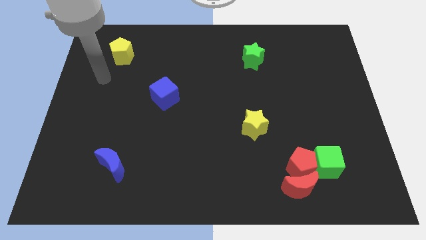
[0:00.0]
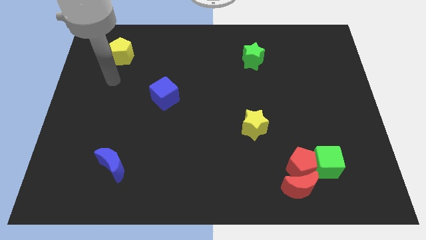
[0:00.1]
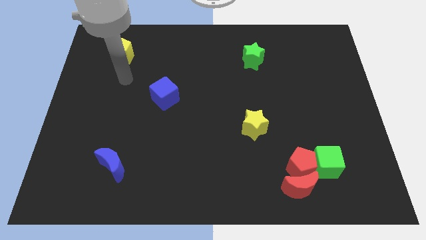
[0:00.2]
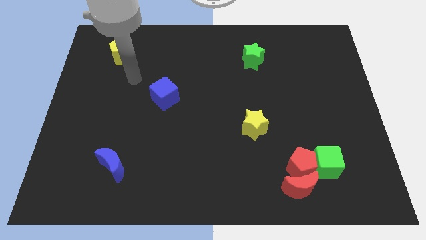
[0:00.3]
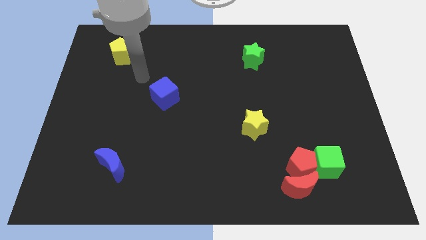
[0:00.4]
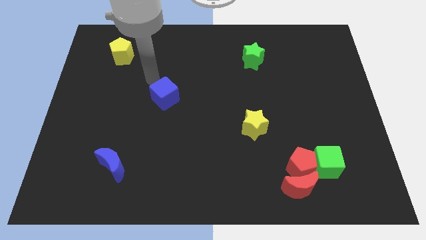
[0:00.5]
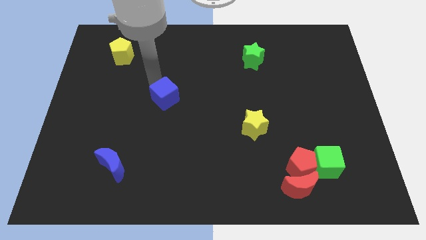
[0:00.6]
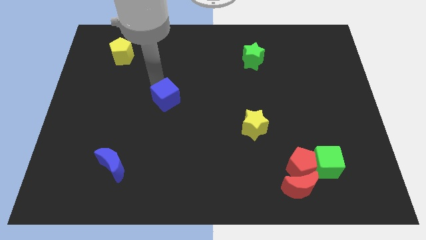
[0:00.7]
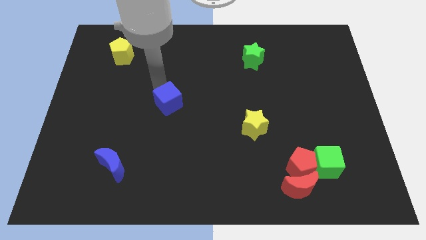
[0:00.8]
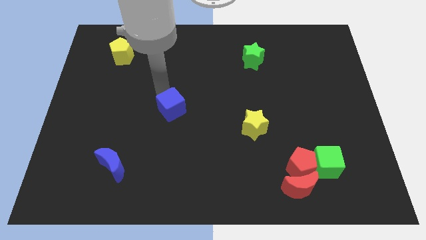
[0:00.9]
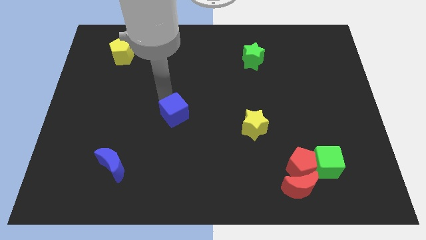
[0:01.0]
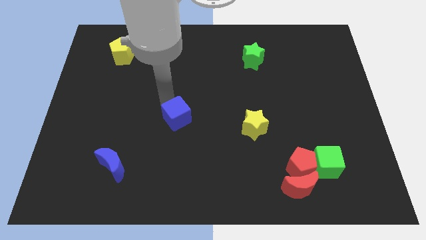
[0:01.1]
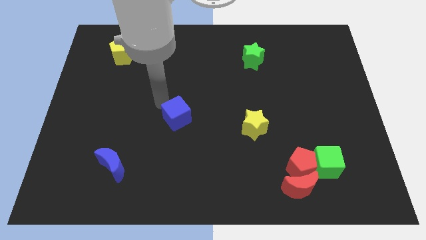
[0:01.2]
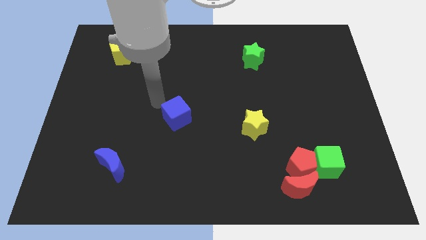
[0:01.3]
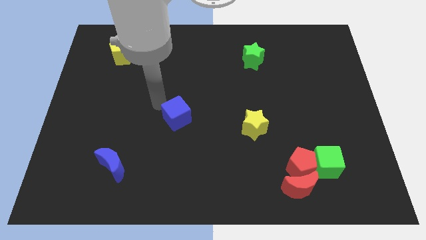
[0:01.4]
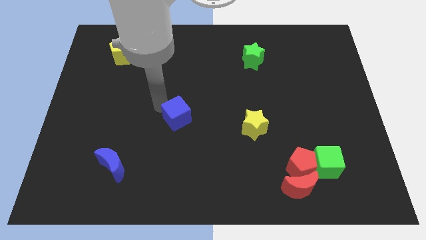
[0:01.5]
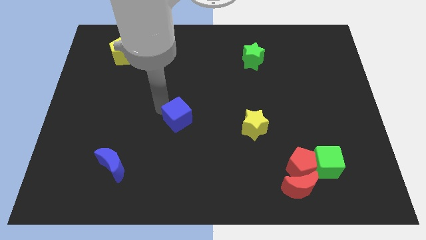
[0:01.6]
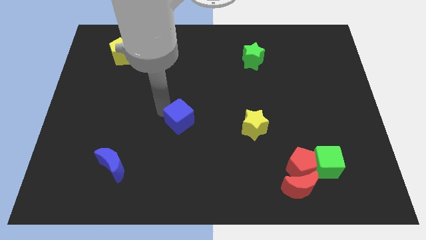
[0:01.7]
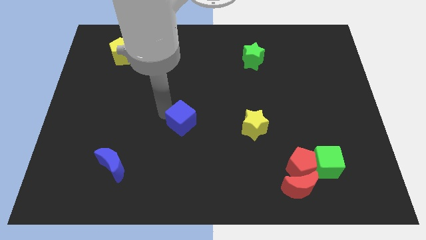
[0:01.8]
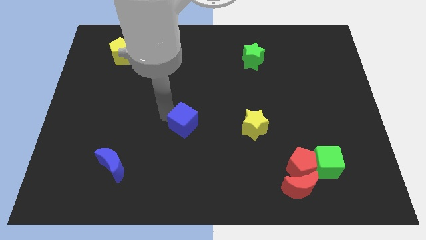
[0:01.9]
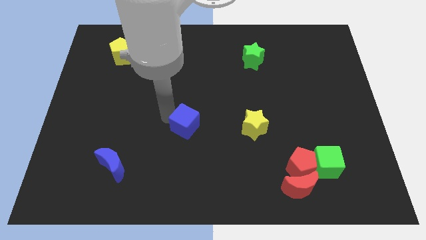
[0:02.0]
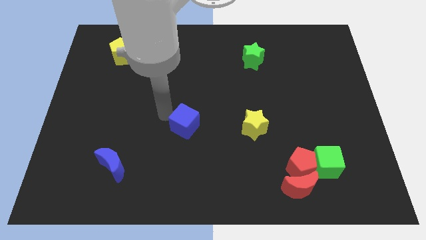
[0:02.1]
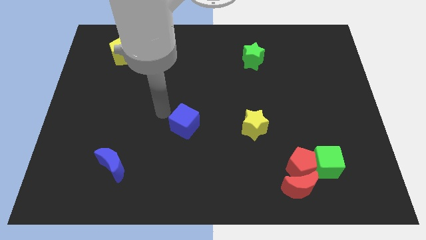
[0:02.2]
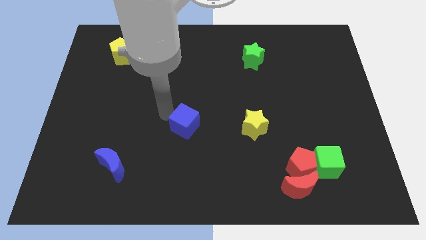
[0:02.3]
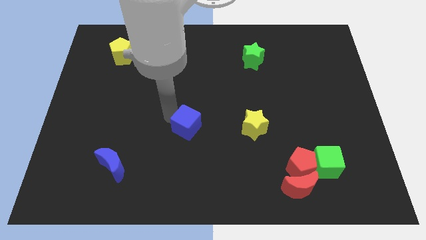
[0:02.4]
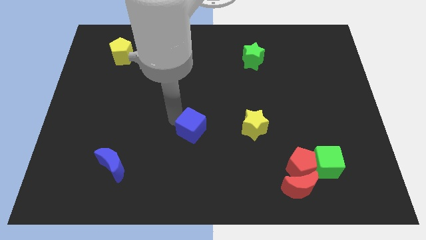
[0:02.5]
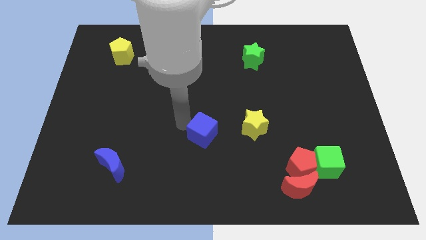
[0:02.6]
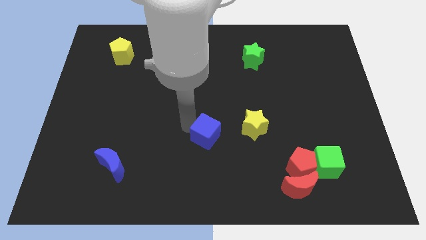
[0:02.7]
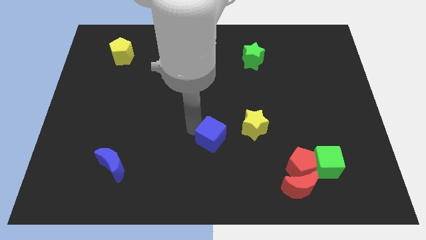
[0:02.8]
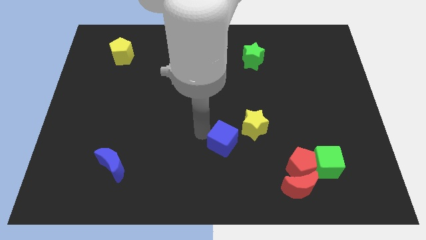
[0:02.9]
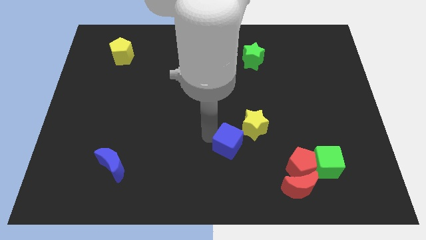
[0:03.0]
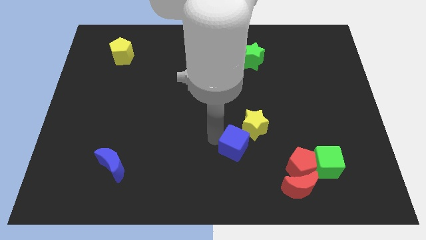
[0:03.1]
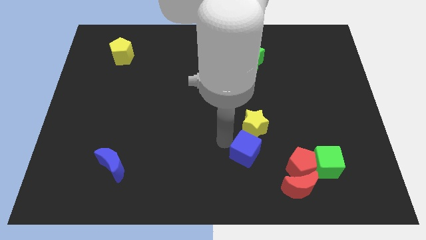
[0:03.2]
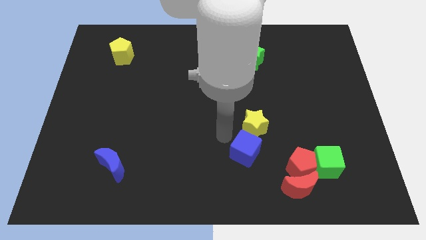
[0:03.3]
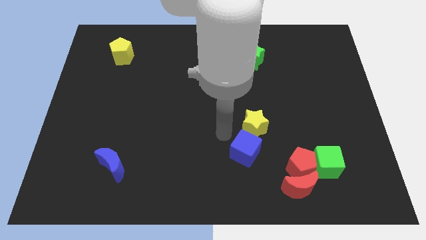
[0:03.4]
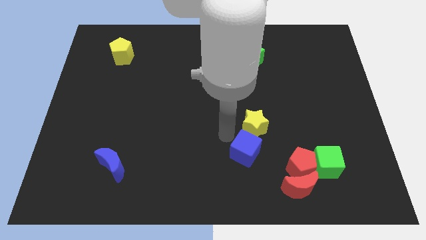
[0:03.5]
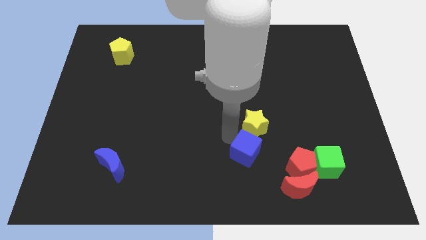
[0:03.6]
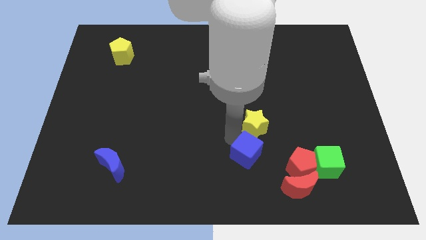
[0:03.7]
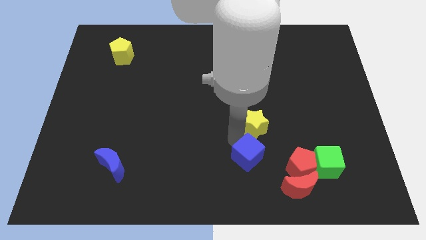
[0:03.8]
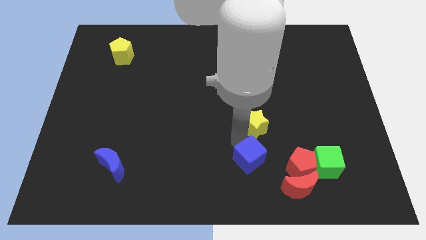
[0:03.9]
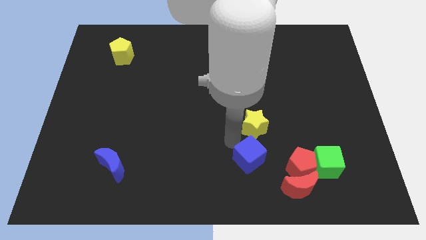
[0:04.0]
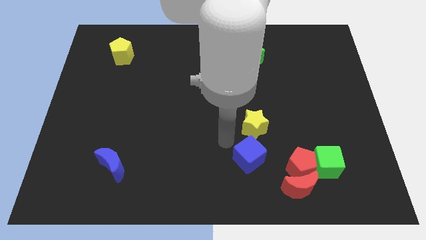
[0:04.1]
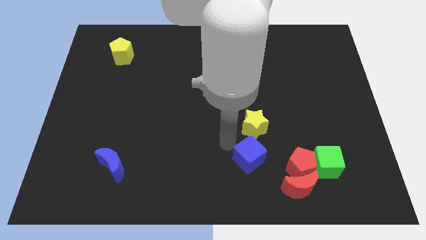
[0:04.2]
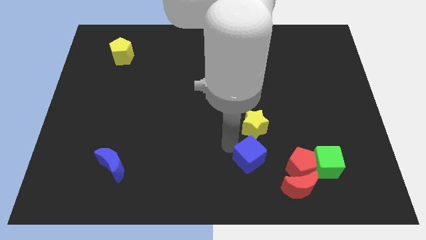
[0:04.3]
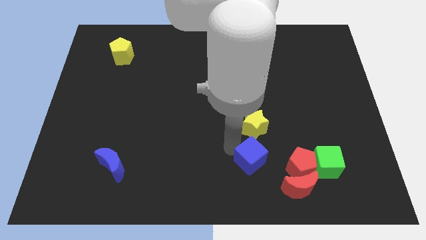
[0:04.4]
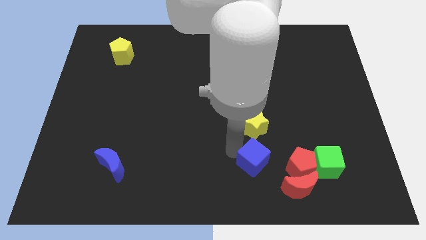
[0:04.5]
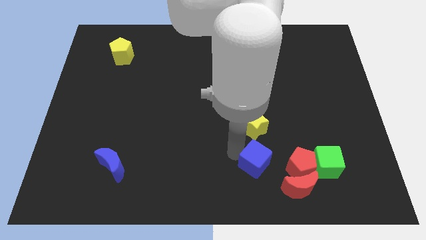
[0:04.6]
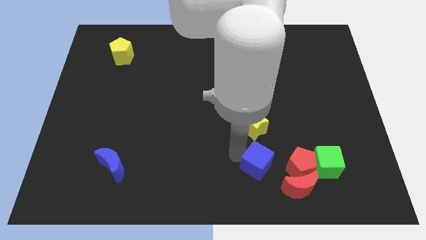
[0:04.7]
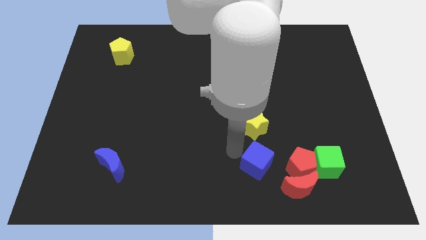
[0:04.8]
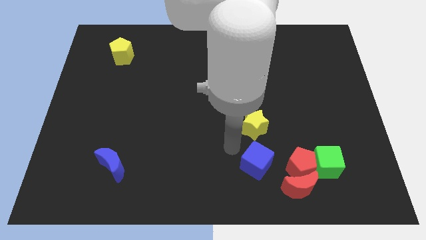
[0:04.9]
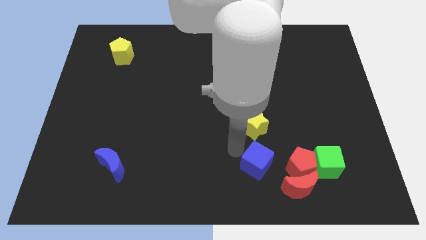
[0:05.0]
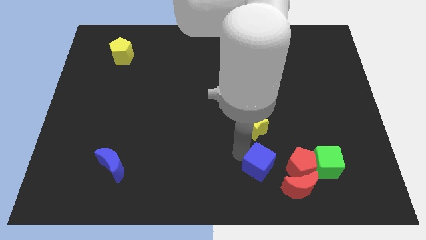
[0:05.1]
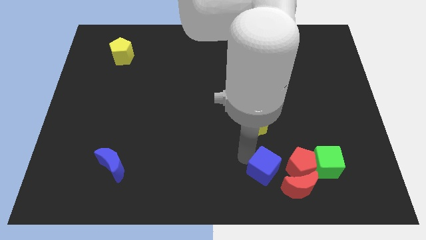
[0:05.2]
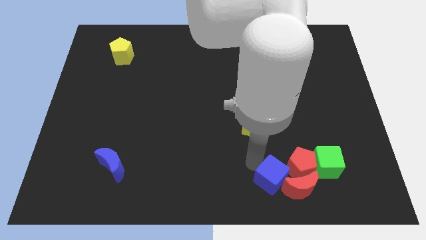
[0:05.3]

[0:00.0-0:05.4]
push the blue cube towards the red moon

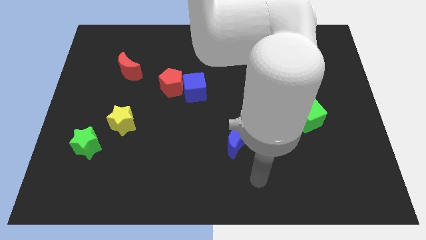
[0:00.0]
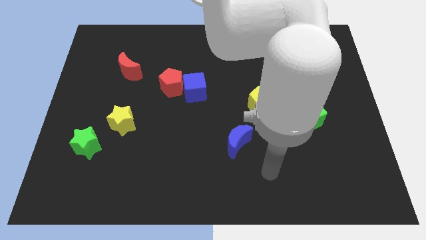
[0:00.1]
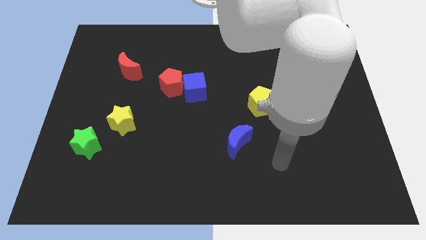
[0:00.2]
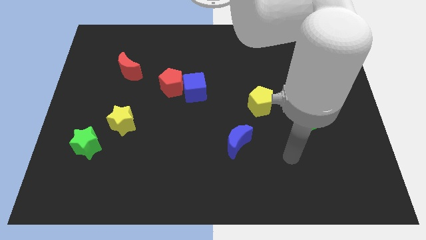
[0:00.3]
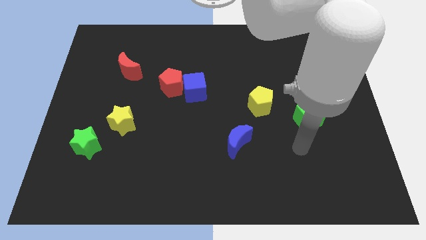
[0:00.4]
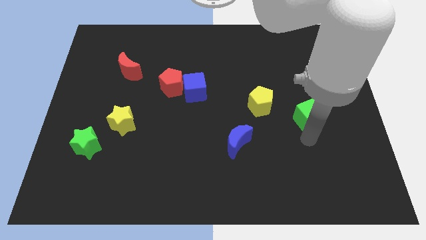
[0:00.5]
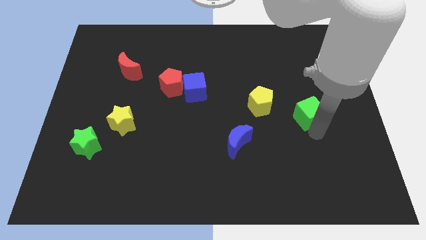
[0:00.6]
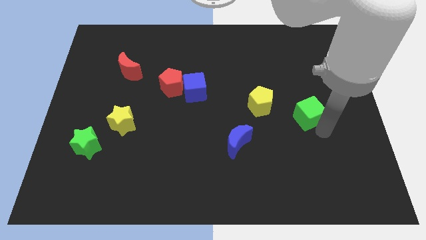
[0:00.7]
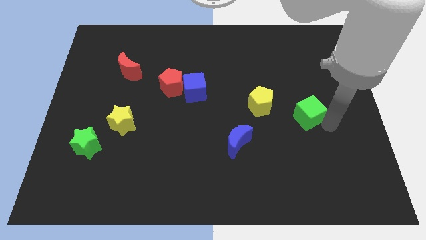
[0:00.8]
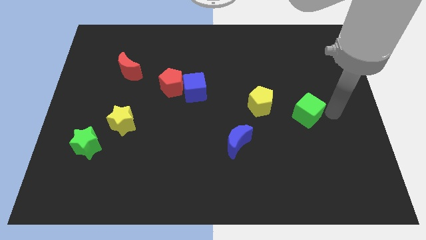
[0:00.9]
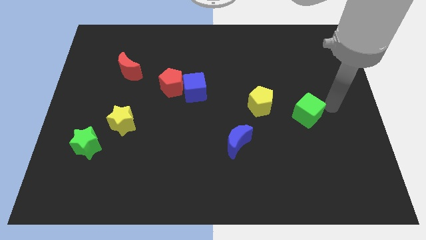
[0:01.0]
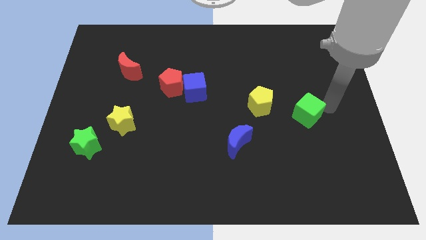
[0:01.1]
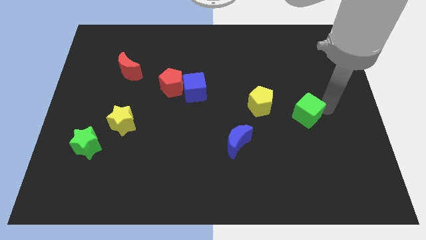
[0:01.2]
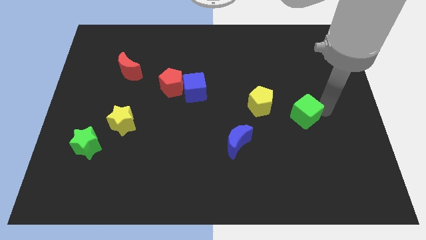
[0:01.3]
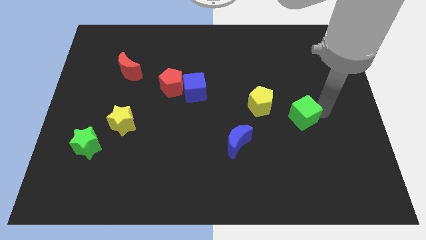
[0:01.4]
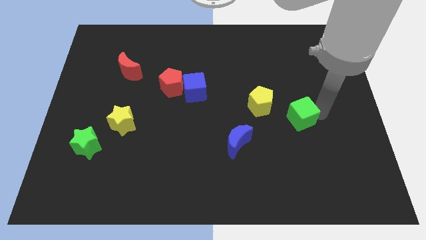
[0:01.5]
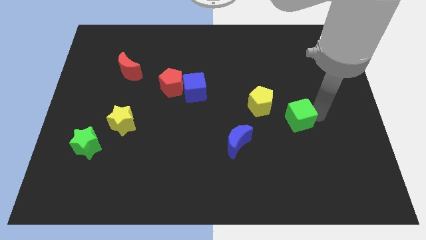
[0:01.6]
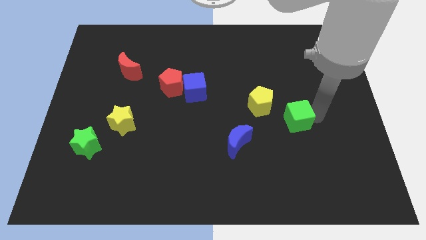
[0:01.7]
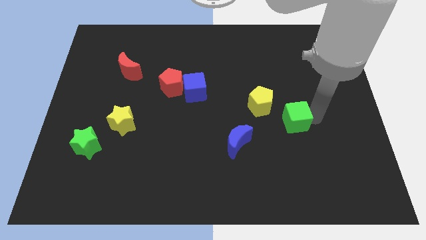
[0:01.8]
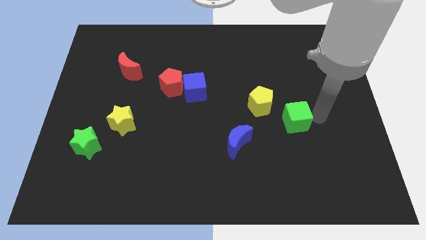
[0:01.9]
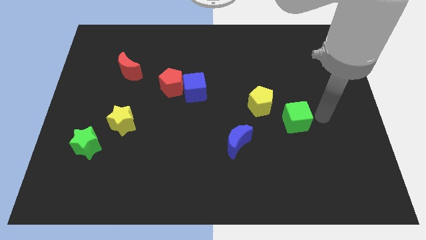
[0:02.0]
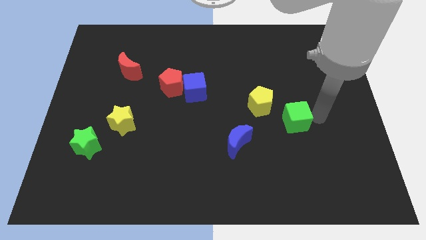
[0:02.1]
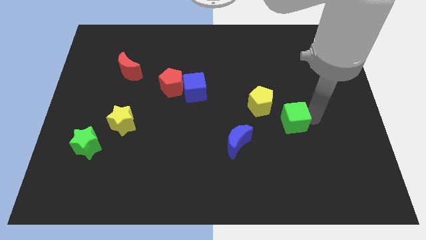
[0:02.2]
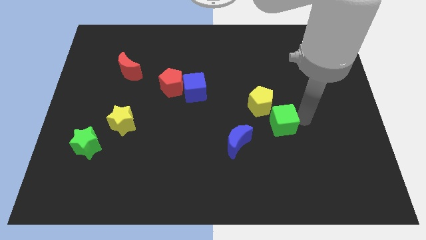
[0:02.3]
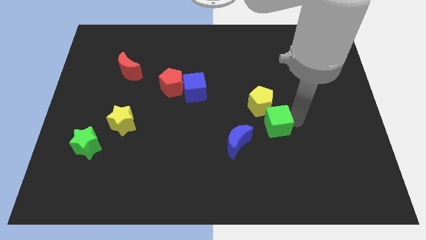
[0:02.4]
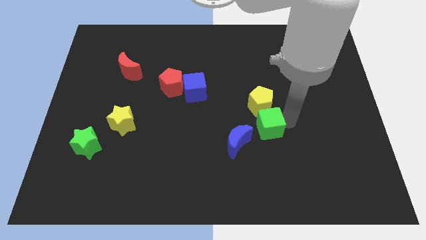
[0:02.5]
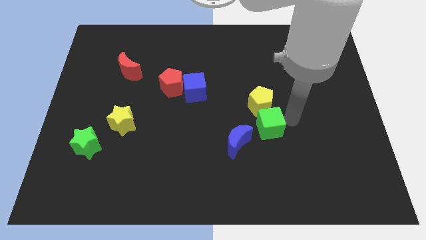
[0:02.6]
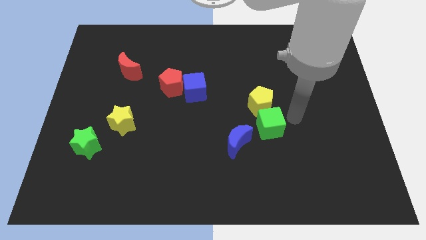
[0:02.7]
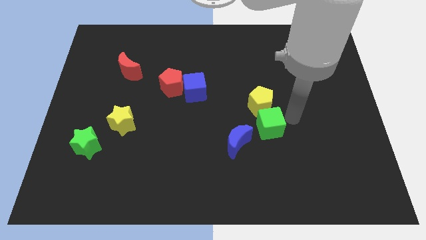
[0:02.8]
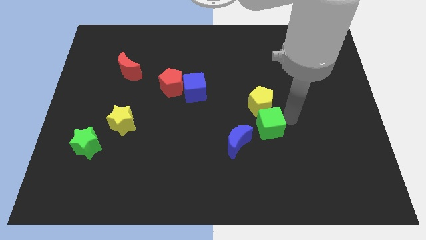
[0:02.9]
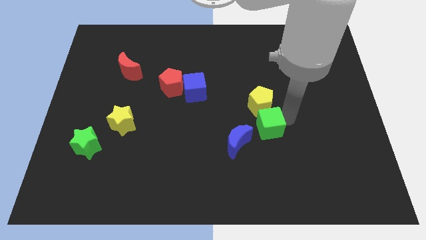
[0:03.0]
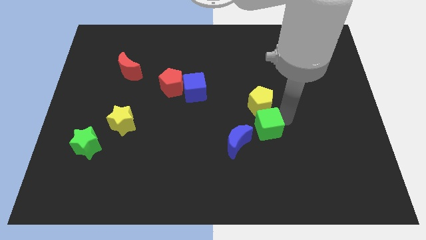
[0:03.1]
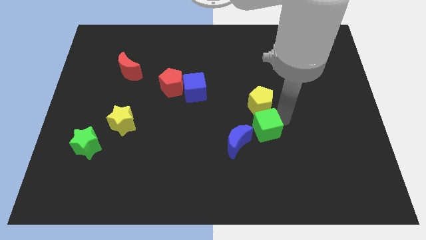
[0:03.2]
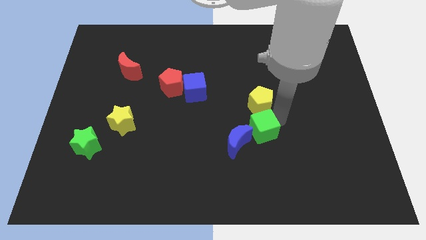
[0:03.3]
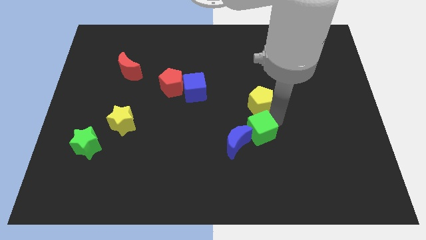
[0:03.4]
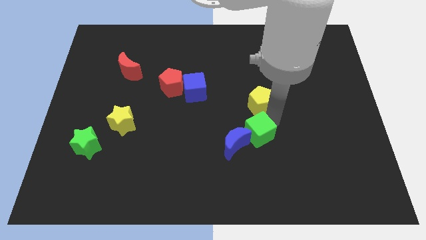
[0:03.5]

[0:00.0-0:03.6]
push the green cube towards the blue moon
